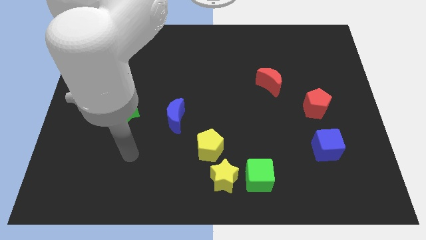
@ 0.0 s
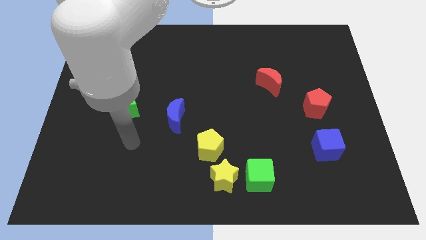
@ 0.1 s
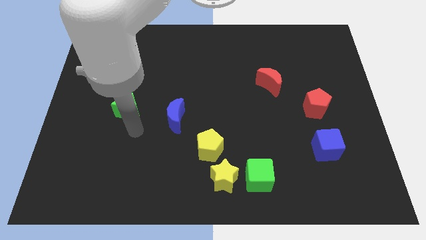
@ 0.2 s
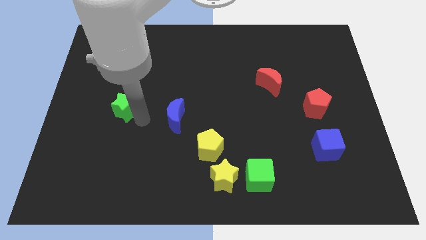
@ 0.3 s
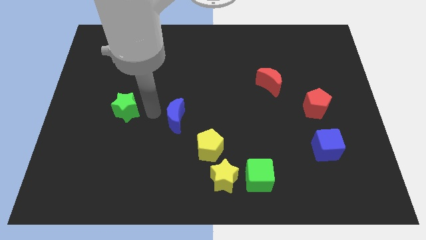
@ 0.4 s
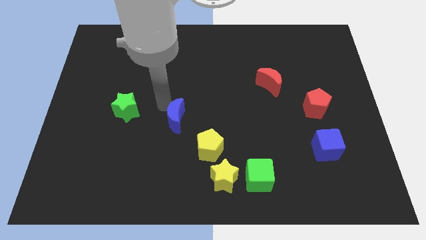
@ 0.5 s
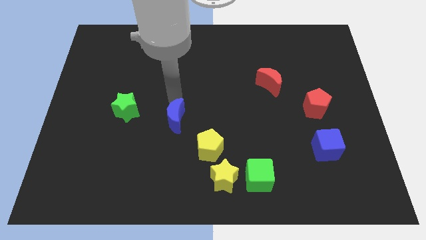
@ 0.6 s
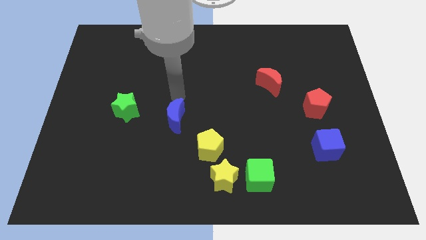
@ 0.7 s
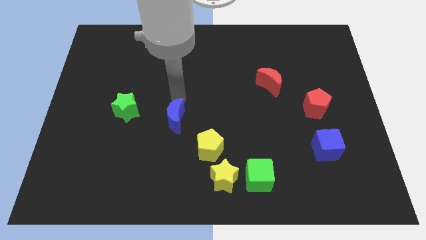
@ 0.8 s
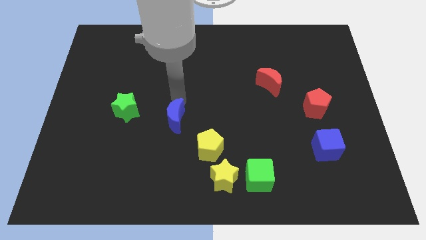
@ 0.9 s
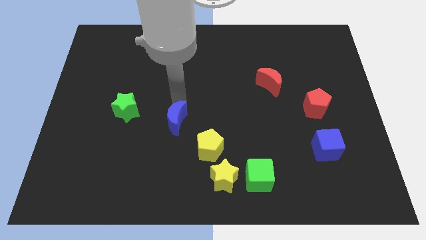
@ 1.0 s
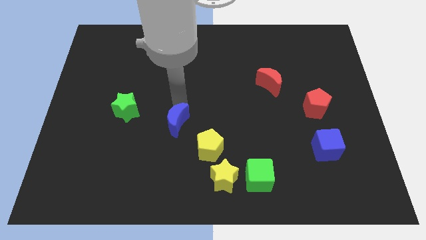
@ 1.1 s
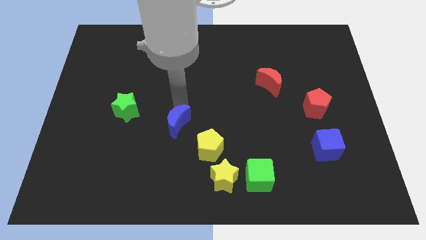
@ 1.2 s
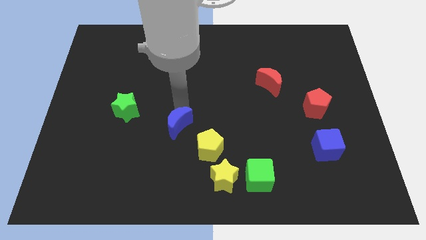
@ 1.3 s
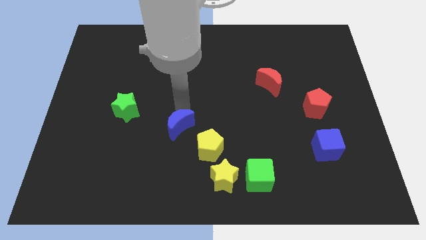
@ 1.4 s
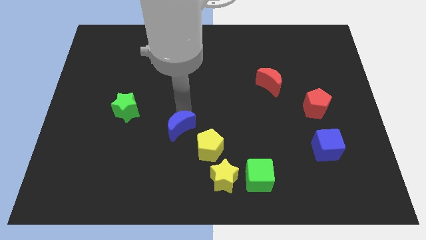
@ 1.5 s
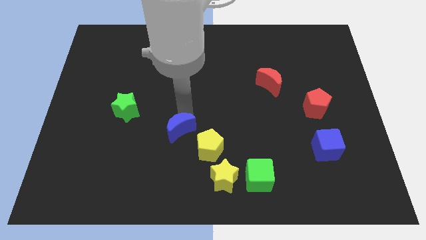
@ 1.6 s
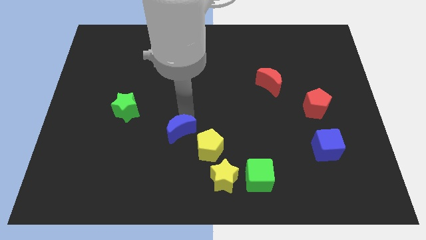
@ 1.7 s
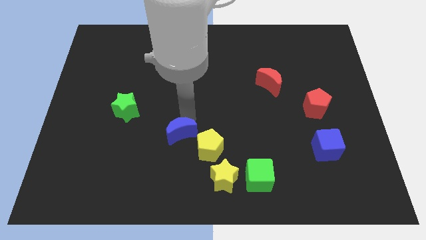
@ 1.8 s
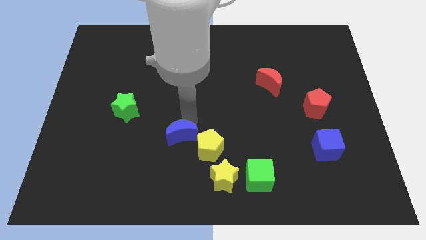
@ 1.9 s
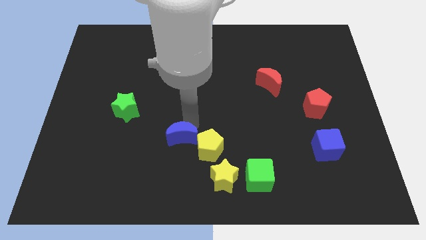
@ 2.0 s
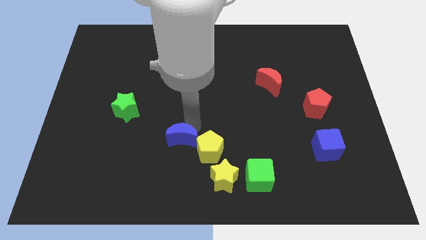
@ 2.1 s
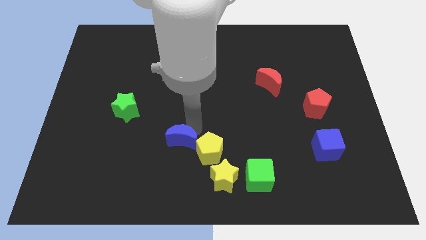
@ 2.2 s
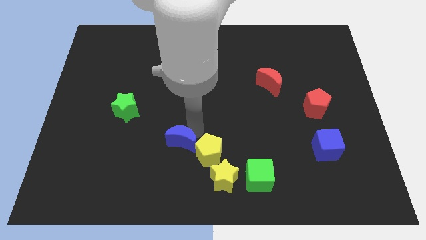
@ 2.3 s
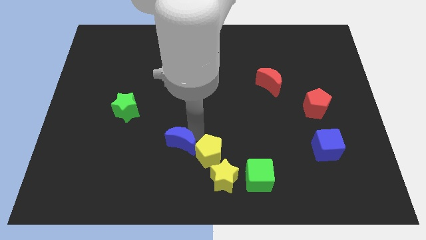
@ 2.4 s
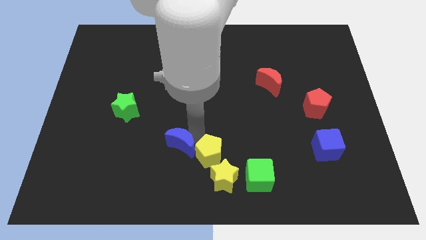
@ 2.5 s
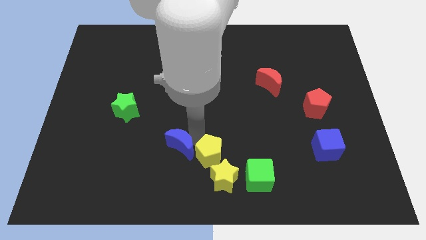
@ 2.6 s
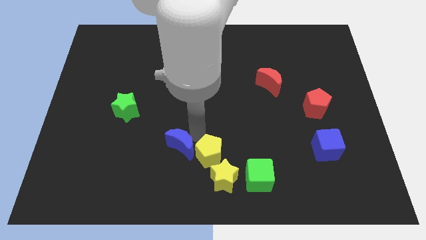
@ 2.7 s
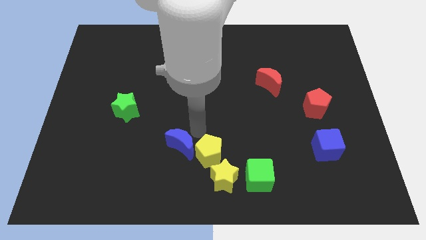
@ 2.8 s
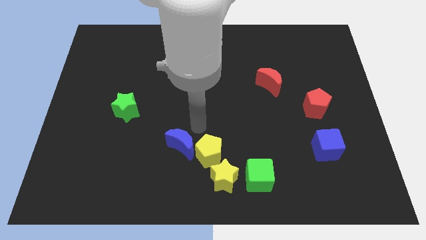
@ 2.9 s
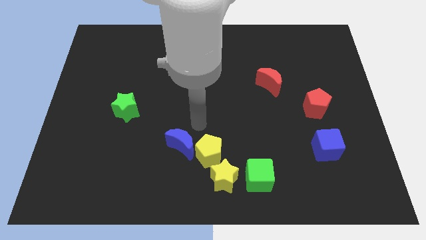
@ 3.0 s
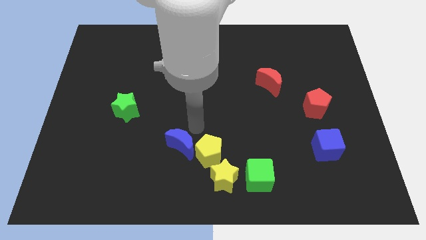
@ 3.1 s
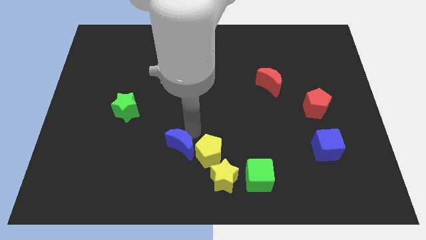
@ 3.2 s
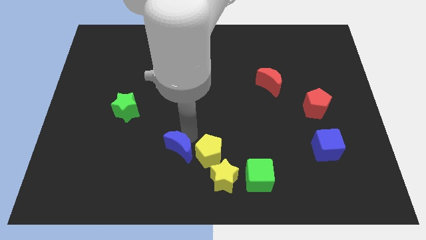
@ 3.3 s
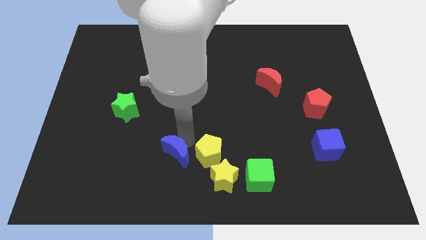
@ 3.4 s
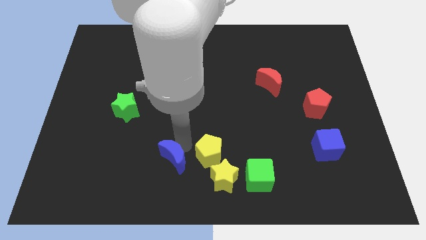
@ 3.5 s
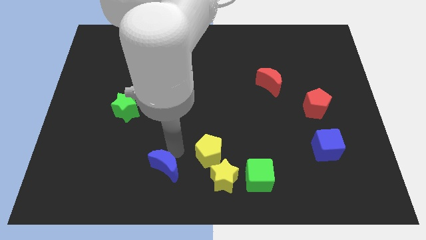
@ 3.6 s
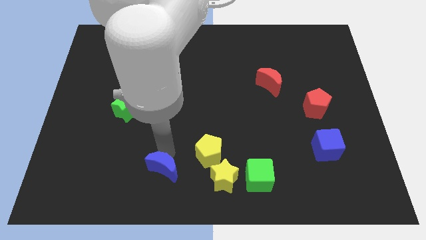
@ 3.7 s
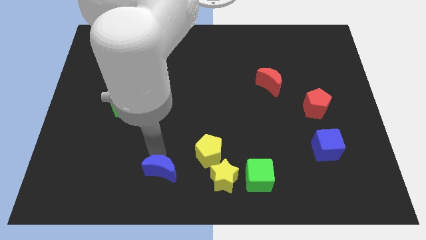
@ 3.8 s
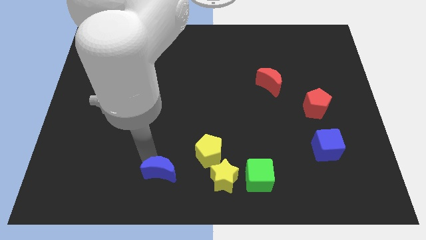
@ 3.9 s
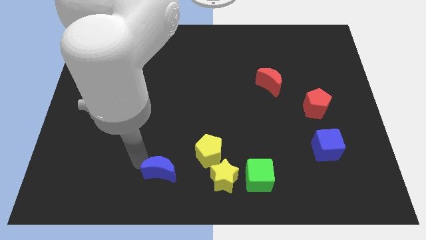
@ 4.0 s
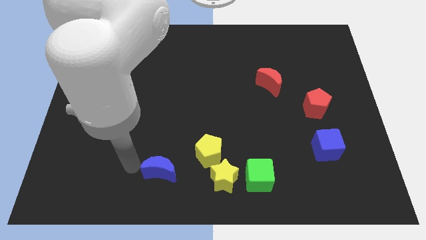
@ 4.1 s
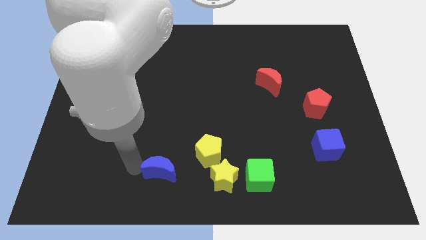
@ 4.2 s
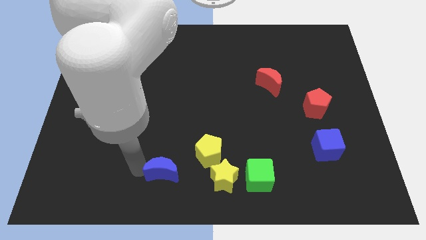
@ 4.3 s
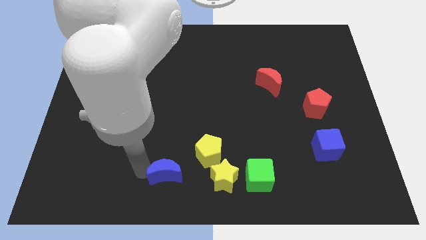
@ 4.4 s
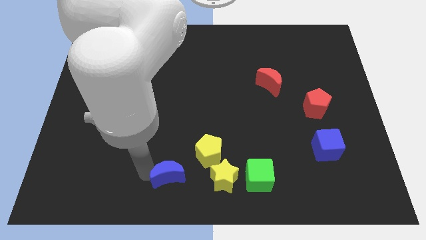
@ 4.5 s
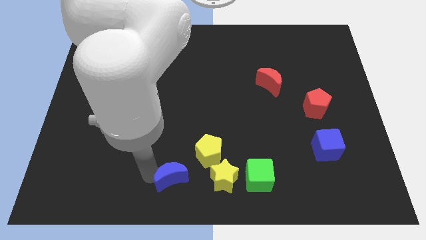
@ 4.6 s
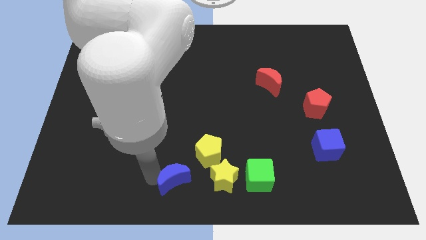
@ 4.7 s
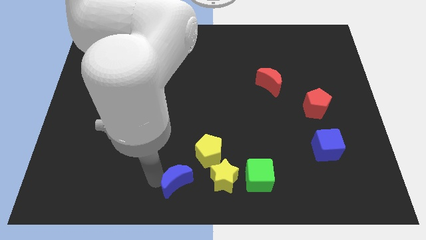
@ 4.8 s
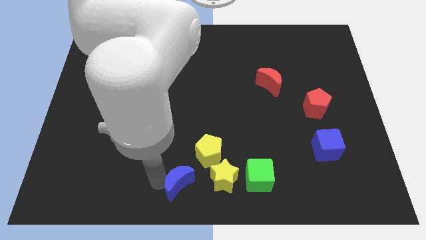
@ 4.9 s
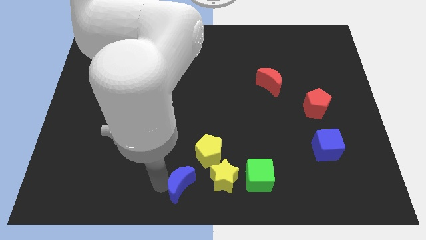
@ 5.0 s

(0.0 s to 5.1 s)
slide the blue moon to the left of the green cube

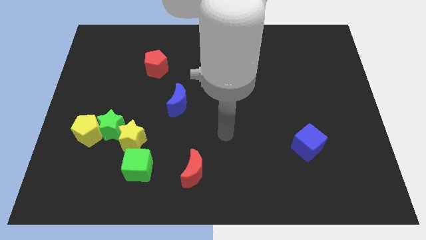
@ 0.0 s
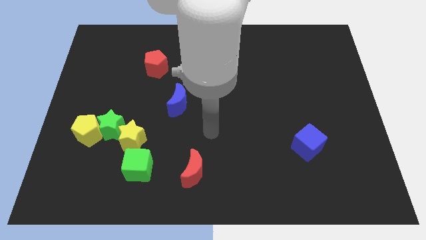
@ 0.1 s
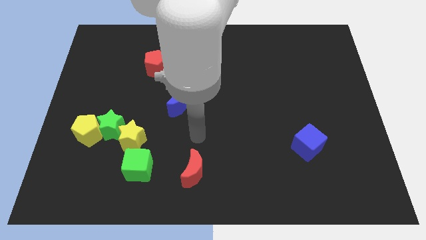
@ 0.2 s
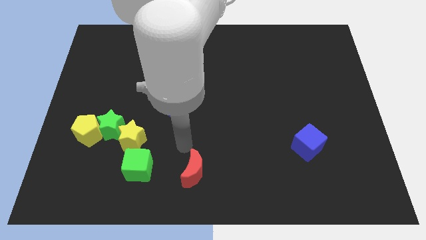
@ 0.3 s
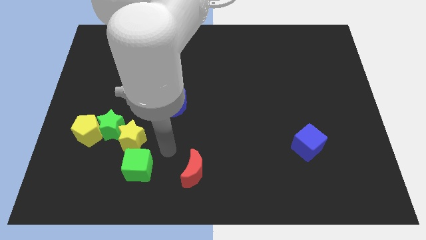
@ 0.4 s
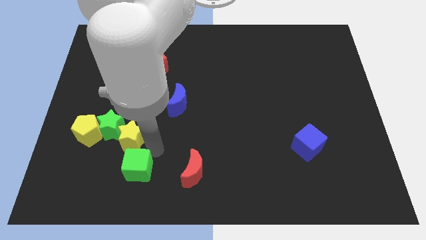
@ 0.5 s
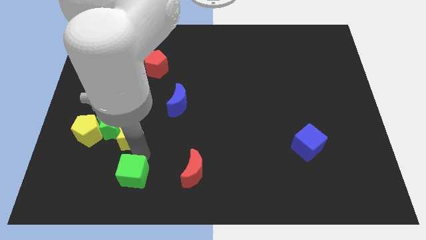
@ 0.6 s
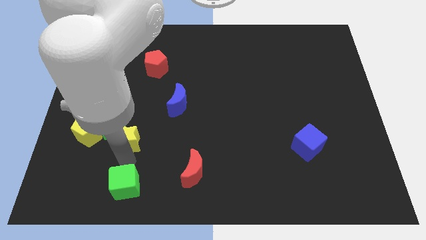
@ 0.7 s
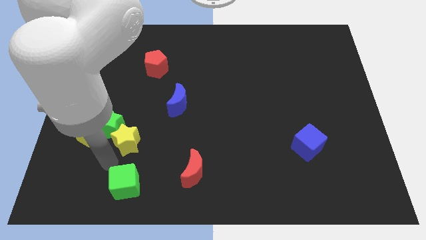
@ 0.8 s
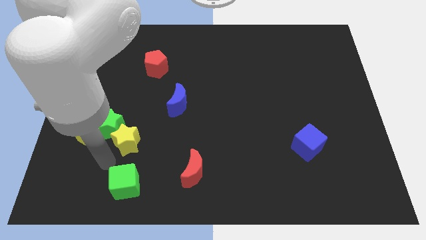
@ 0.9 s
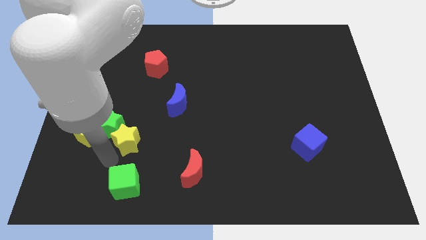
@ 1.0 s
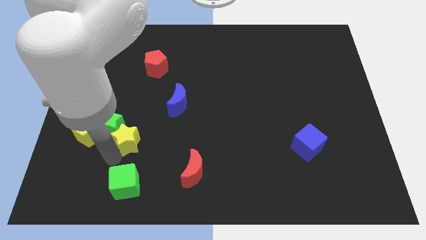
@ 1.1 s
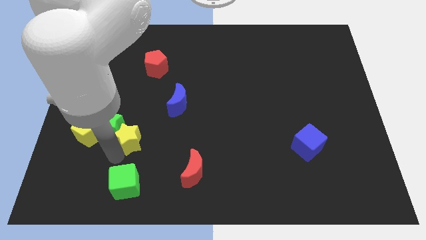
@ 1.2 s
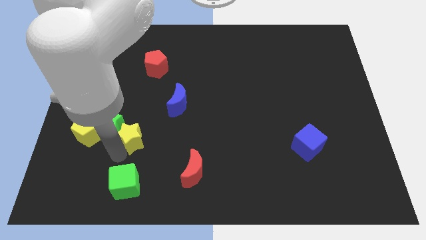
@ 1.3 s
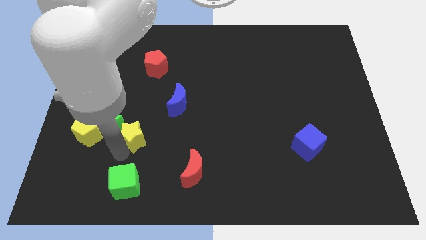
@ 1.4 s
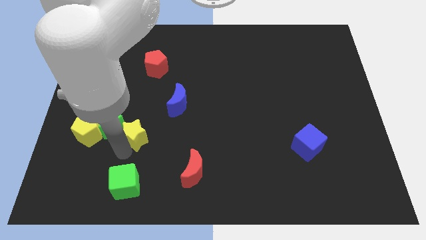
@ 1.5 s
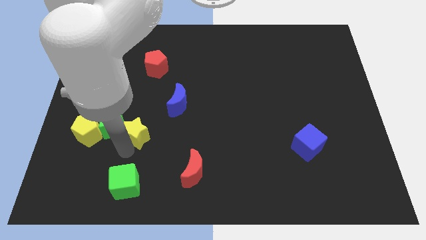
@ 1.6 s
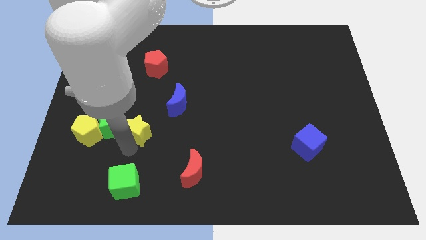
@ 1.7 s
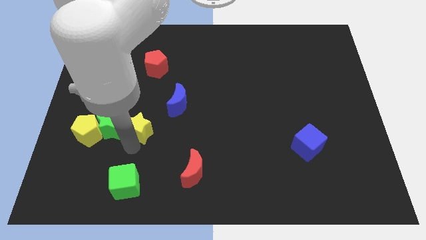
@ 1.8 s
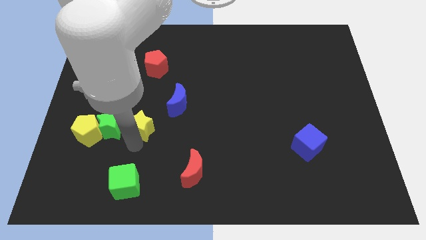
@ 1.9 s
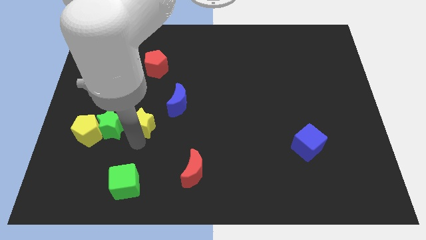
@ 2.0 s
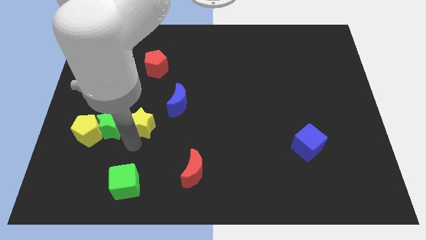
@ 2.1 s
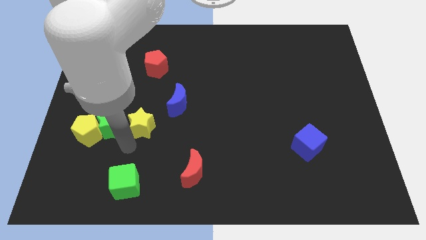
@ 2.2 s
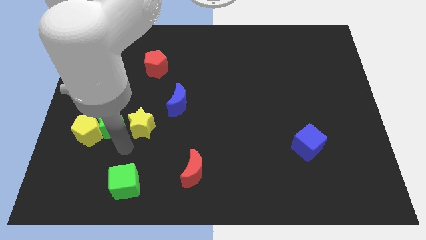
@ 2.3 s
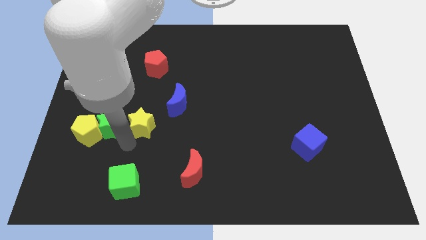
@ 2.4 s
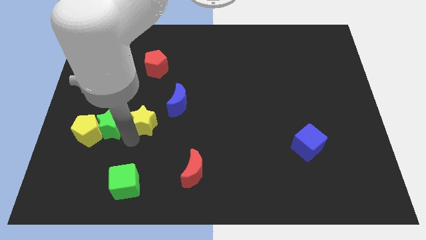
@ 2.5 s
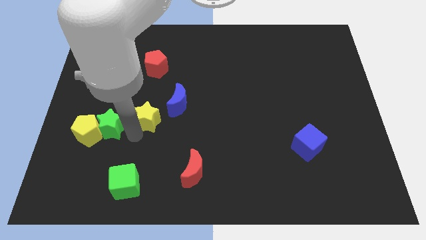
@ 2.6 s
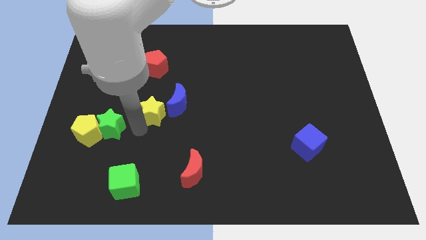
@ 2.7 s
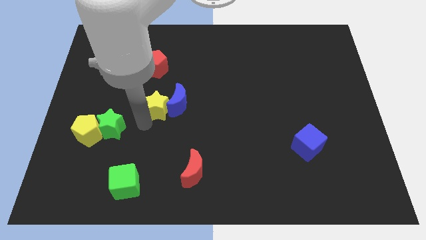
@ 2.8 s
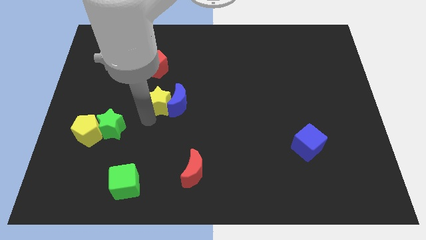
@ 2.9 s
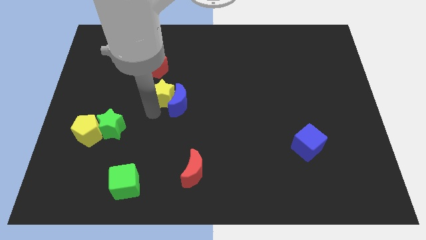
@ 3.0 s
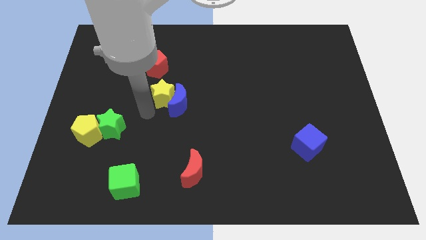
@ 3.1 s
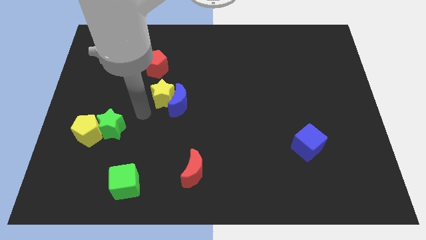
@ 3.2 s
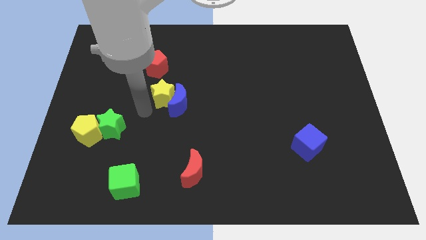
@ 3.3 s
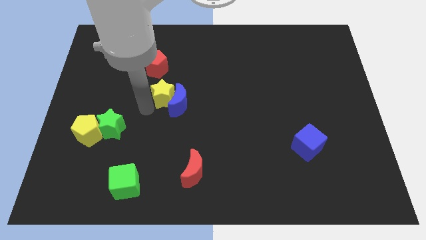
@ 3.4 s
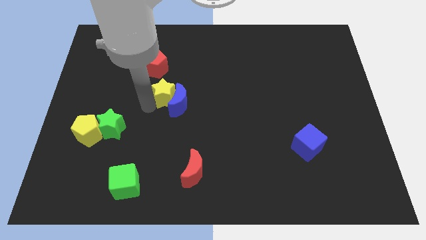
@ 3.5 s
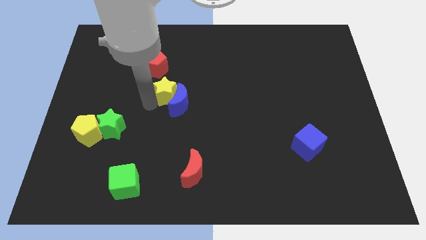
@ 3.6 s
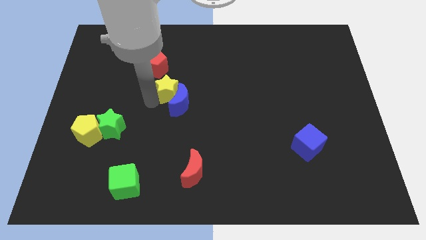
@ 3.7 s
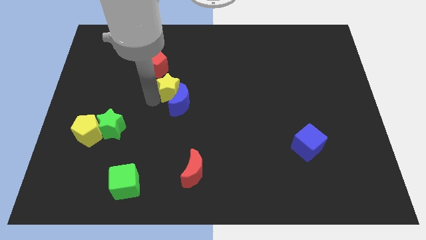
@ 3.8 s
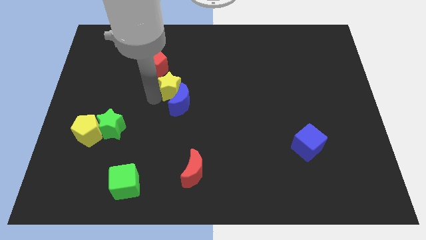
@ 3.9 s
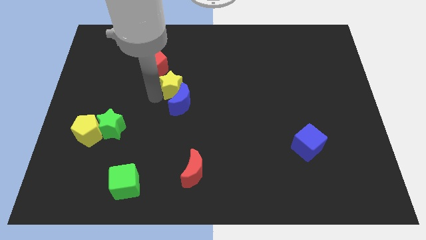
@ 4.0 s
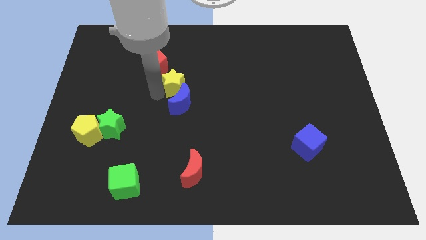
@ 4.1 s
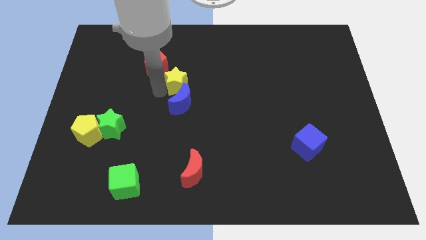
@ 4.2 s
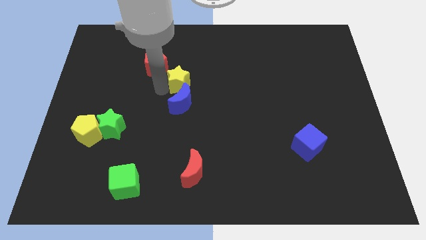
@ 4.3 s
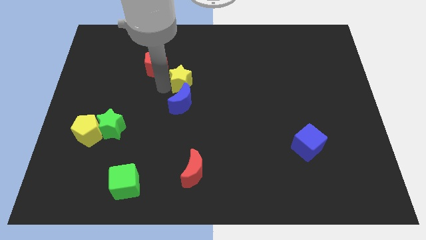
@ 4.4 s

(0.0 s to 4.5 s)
put the yellow star to the right side of the red pentagon
